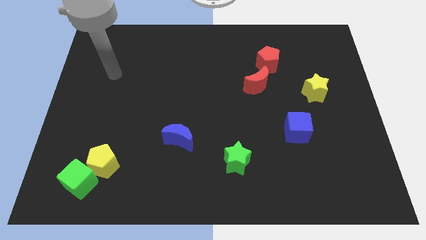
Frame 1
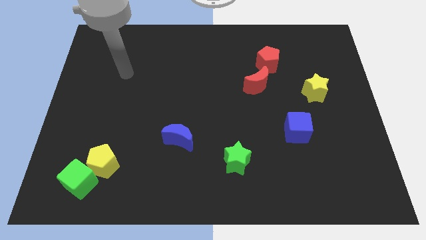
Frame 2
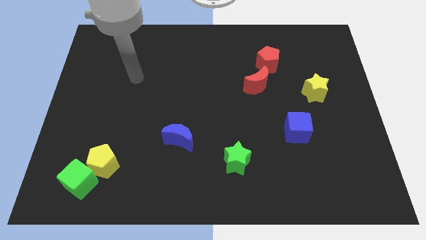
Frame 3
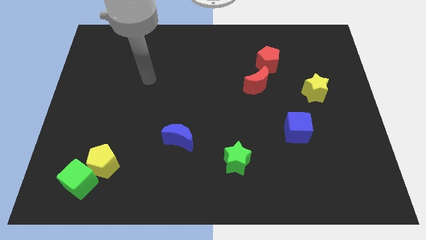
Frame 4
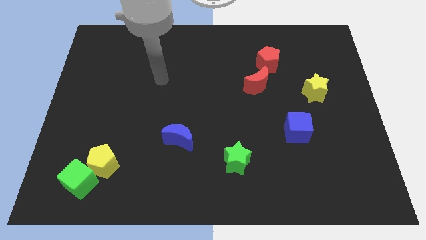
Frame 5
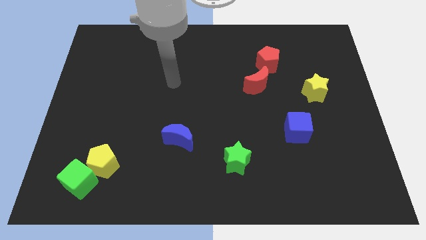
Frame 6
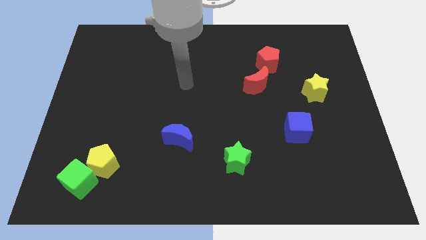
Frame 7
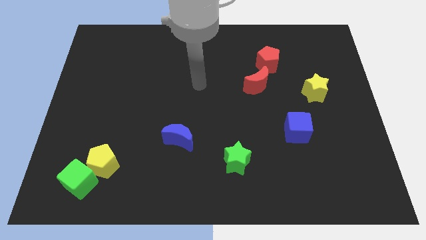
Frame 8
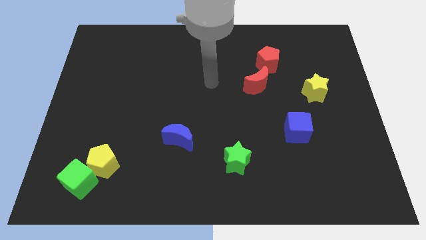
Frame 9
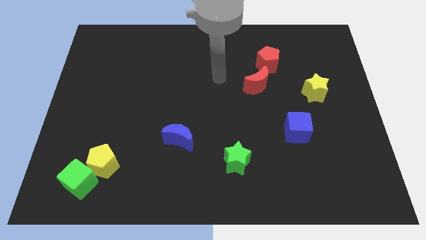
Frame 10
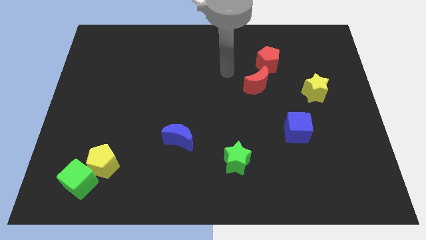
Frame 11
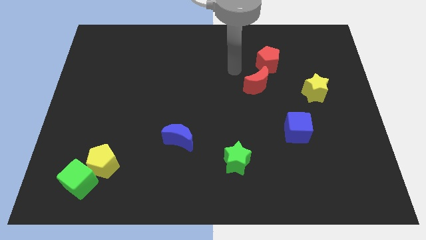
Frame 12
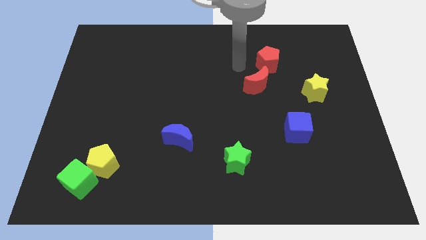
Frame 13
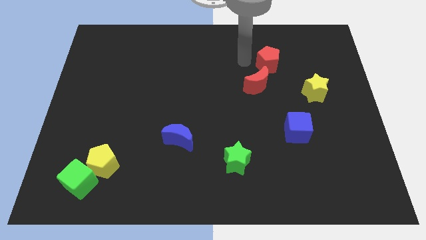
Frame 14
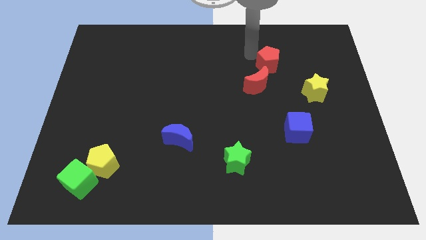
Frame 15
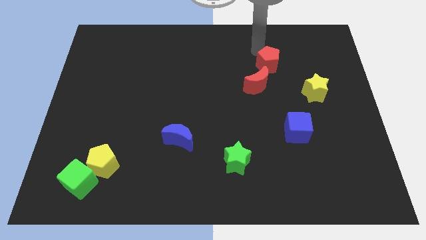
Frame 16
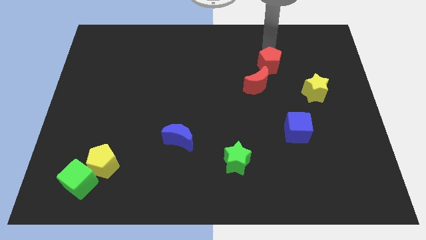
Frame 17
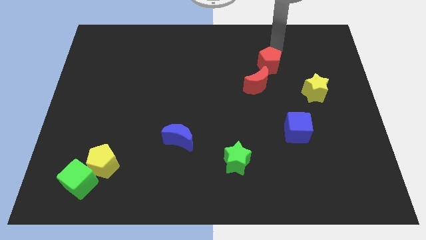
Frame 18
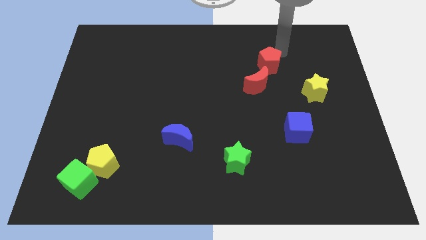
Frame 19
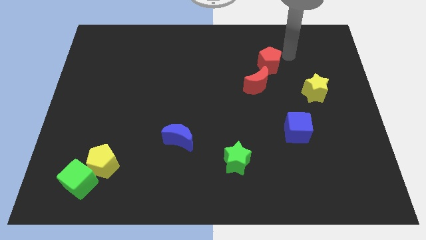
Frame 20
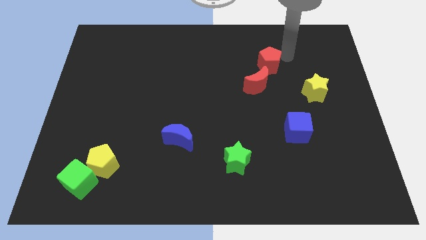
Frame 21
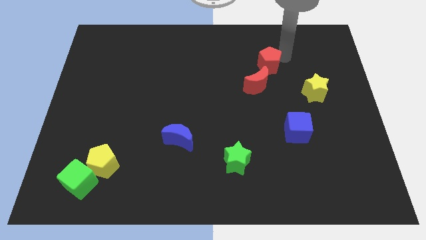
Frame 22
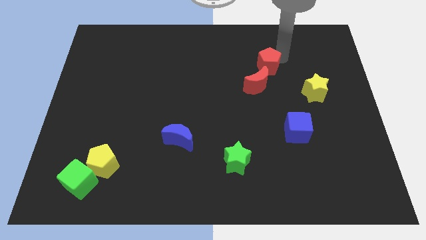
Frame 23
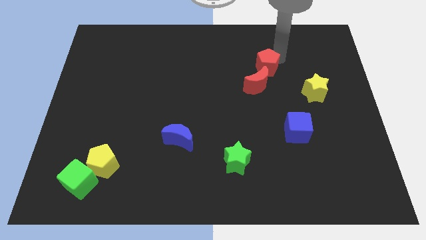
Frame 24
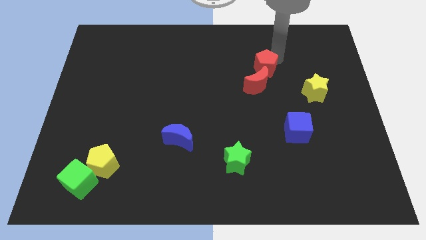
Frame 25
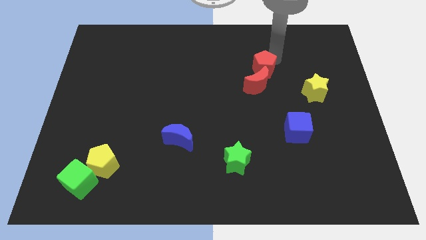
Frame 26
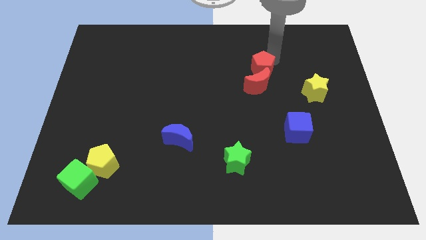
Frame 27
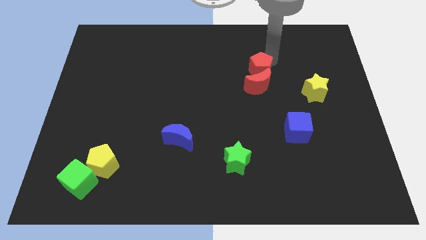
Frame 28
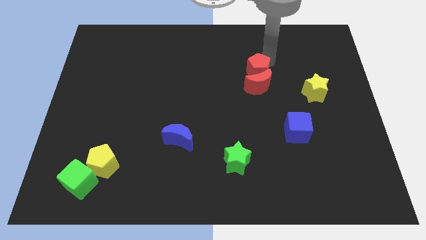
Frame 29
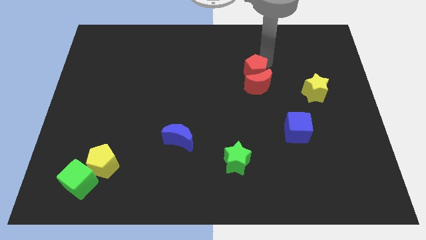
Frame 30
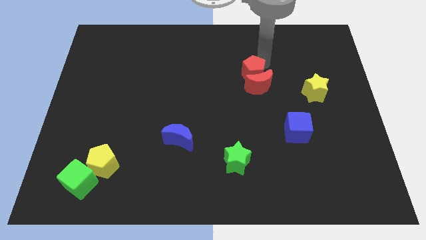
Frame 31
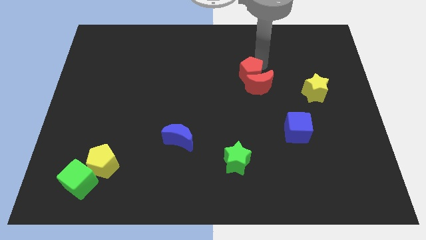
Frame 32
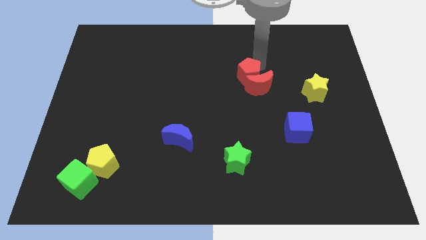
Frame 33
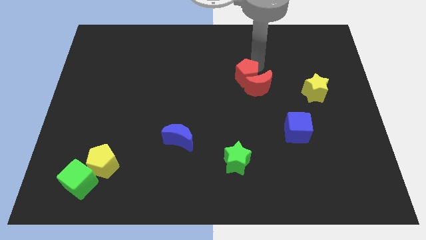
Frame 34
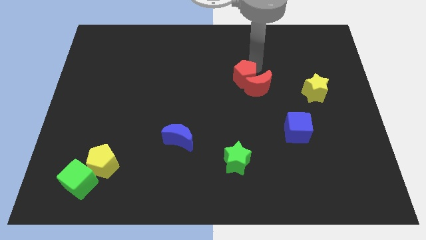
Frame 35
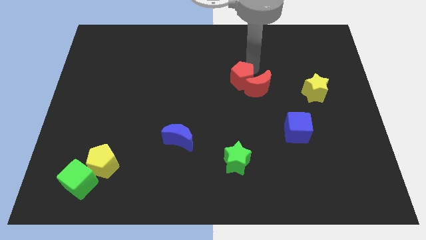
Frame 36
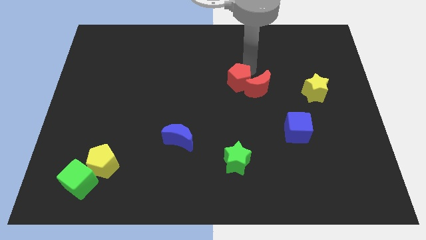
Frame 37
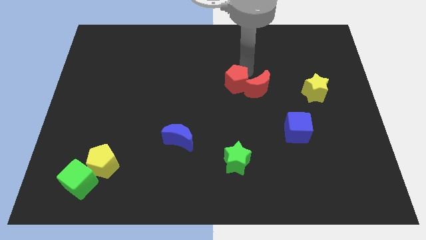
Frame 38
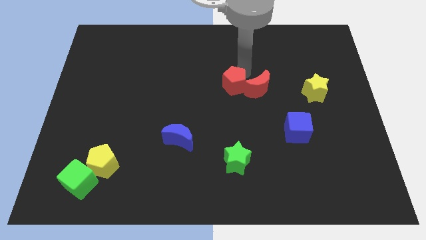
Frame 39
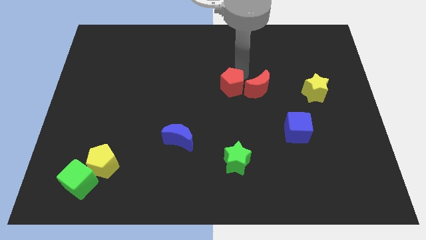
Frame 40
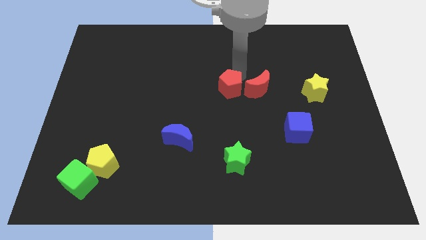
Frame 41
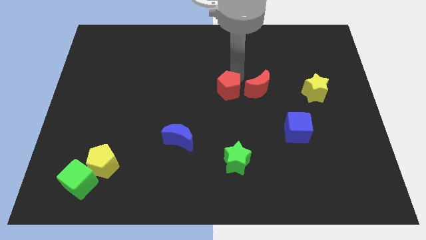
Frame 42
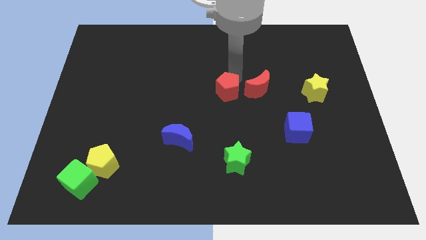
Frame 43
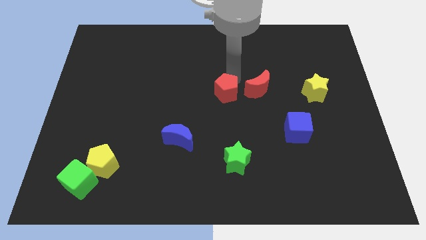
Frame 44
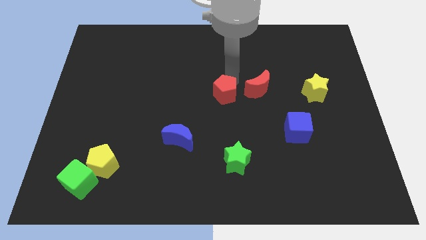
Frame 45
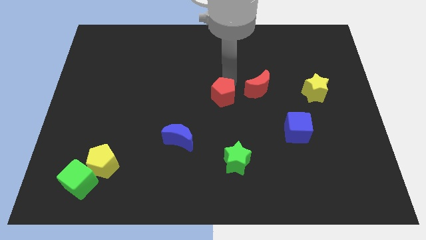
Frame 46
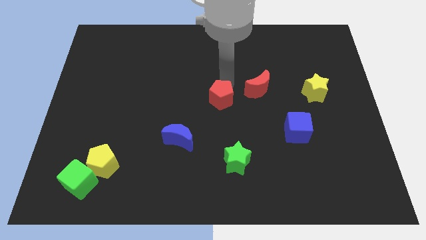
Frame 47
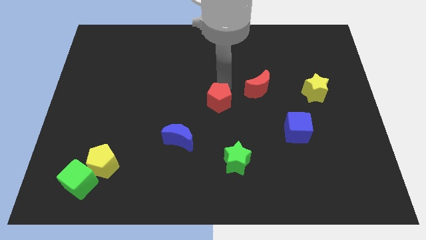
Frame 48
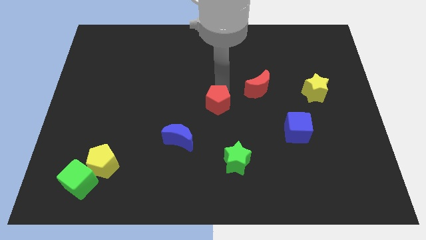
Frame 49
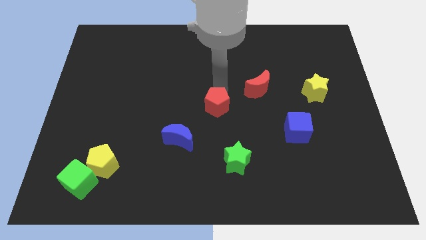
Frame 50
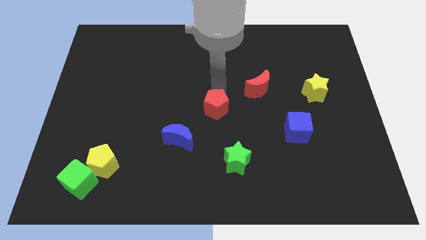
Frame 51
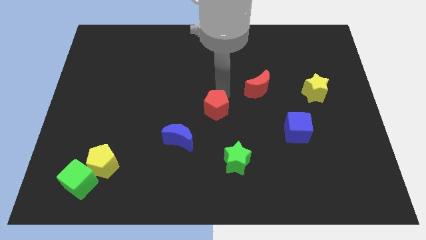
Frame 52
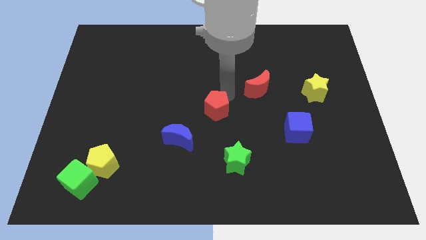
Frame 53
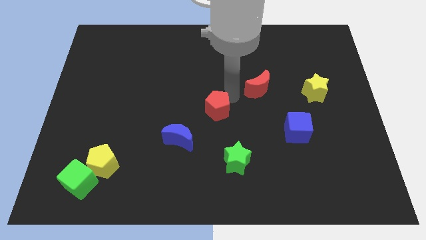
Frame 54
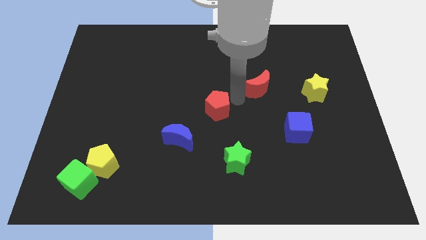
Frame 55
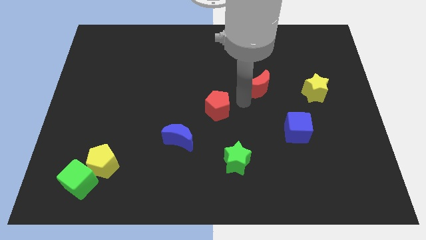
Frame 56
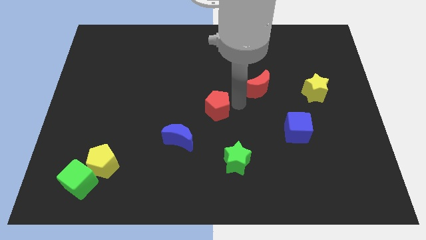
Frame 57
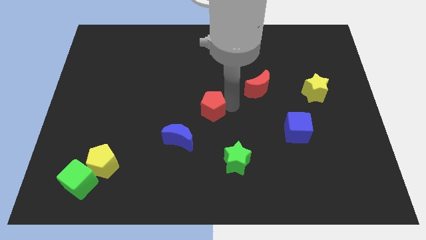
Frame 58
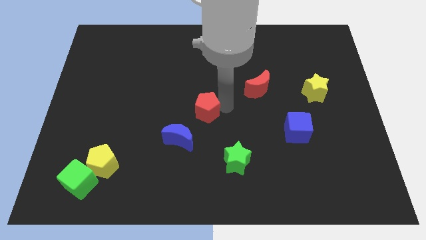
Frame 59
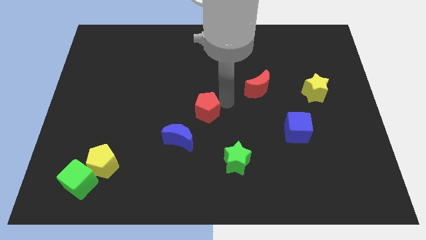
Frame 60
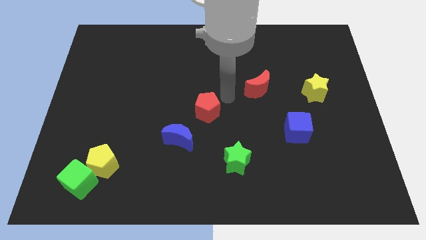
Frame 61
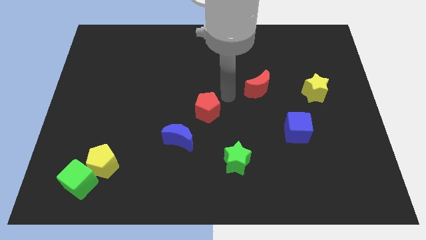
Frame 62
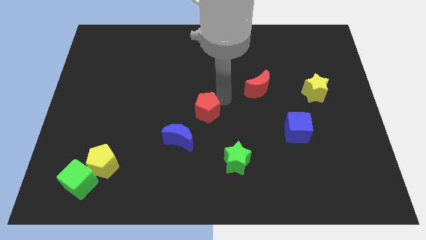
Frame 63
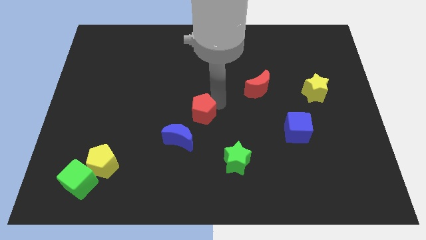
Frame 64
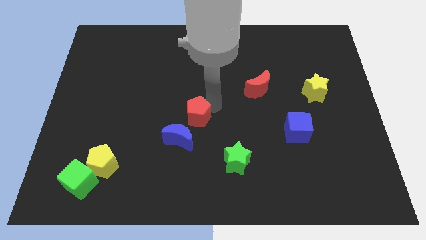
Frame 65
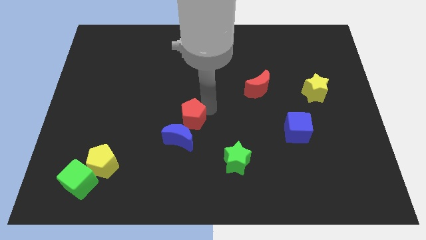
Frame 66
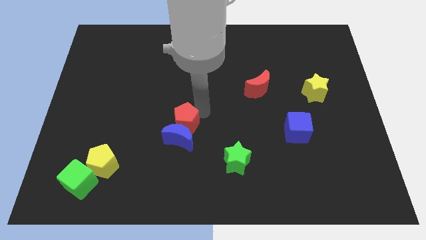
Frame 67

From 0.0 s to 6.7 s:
put the red pentagon towards the blue moon
